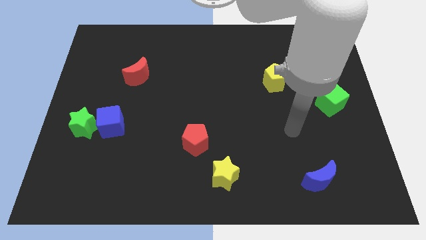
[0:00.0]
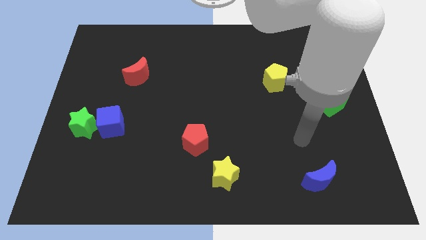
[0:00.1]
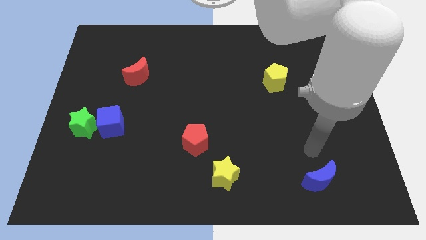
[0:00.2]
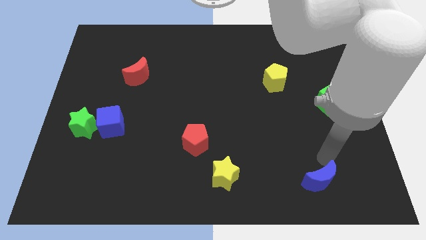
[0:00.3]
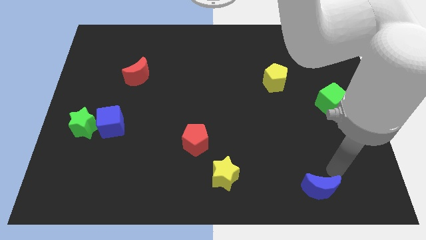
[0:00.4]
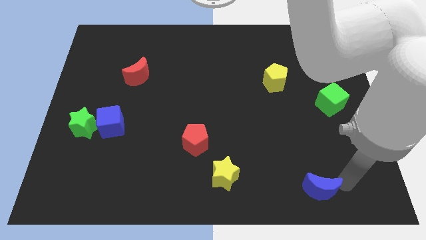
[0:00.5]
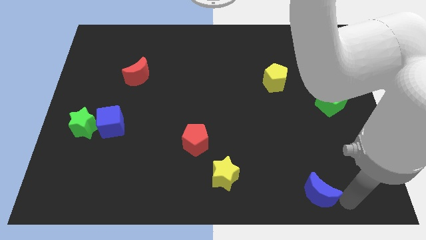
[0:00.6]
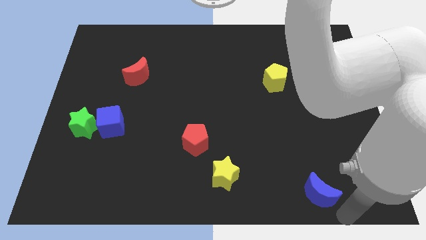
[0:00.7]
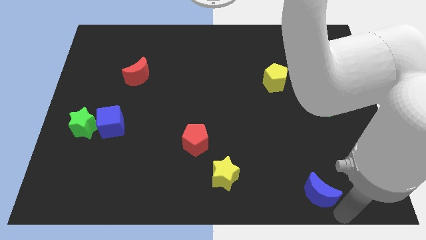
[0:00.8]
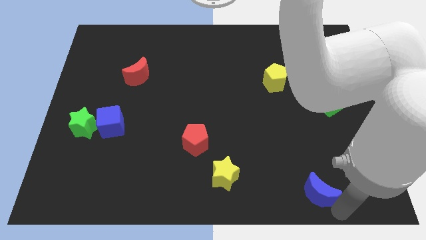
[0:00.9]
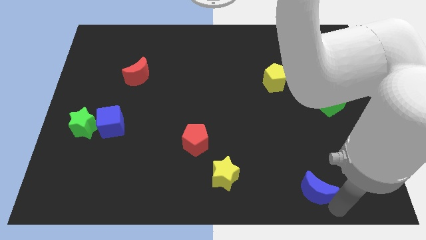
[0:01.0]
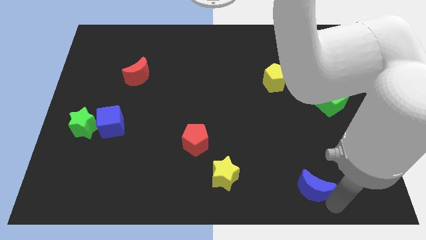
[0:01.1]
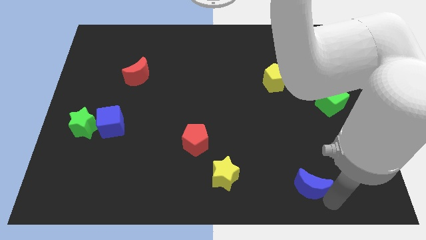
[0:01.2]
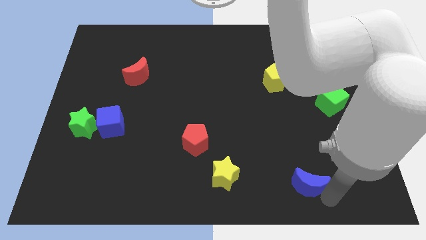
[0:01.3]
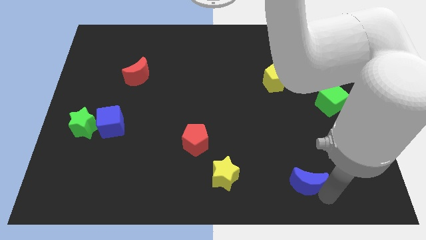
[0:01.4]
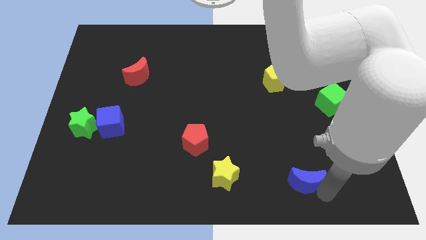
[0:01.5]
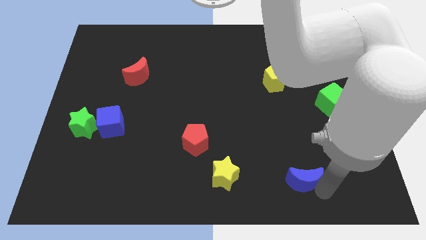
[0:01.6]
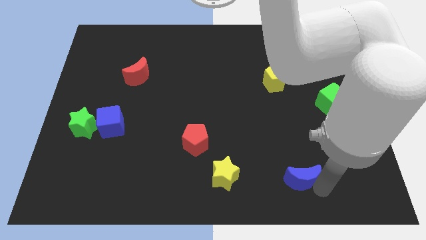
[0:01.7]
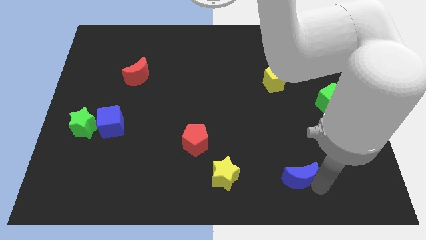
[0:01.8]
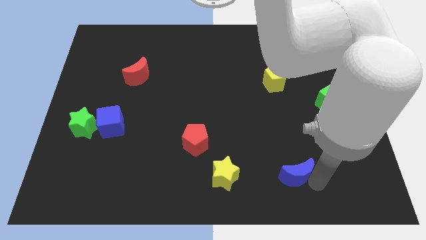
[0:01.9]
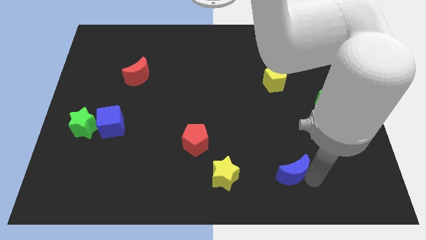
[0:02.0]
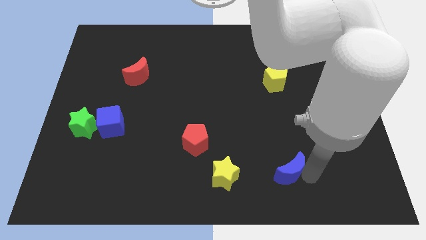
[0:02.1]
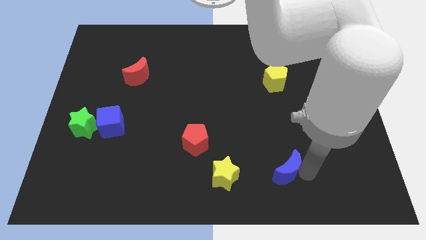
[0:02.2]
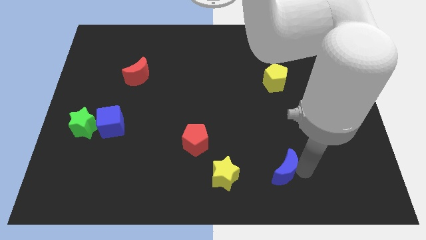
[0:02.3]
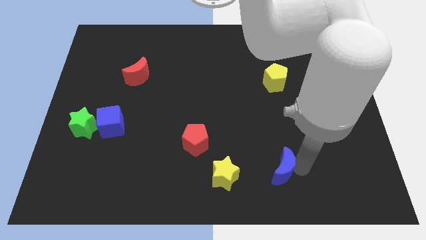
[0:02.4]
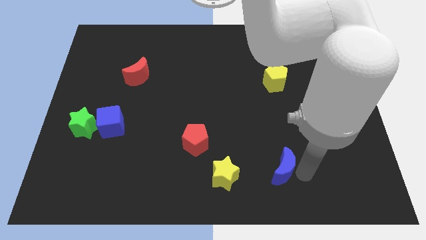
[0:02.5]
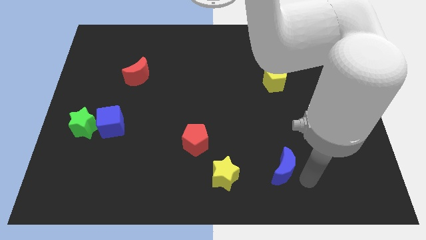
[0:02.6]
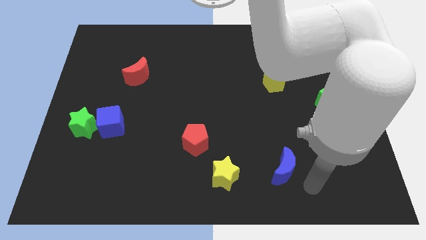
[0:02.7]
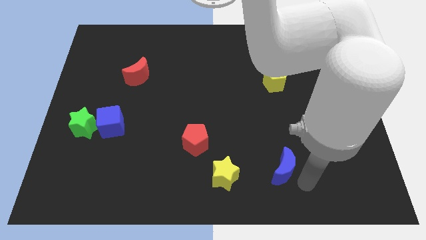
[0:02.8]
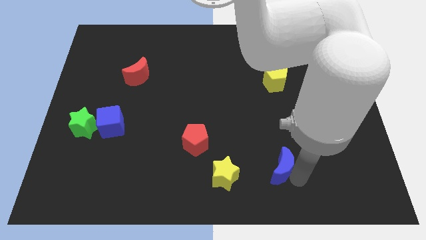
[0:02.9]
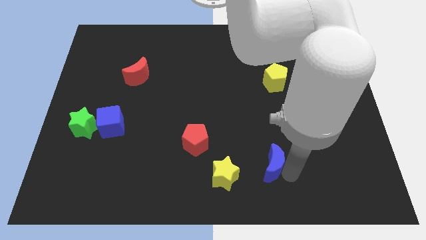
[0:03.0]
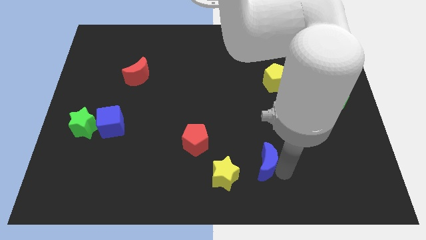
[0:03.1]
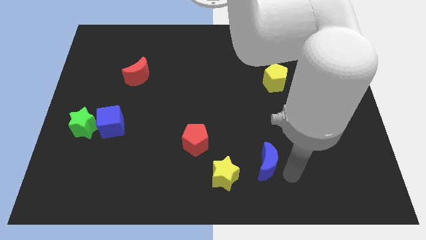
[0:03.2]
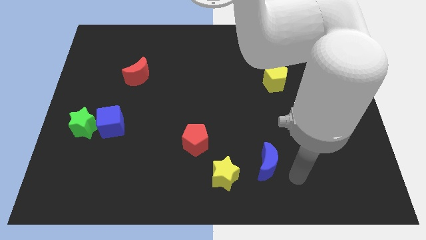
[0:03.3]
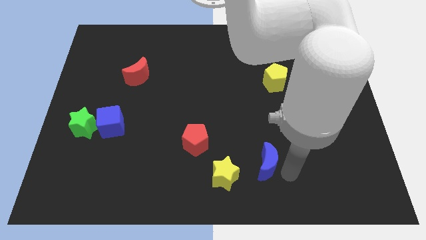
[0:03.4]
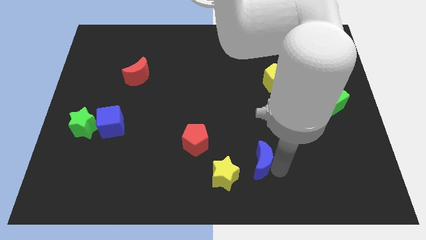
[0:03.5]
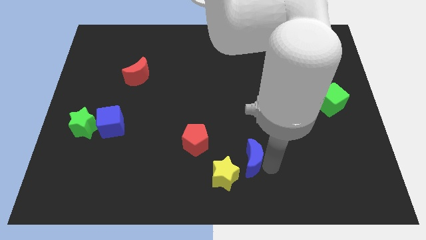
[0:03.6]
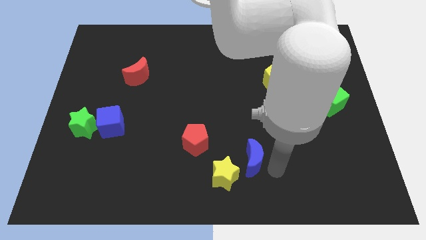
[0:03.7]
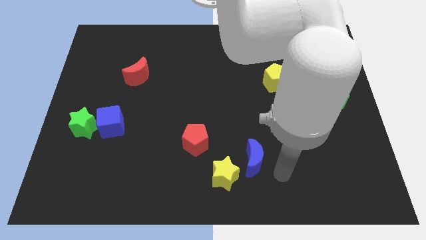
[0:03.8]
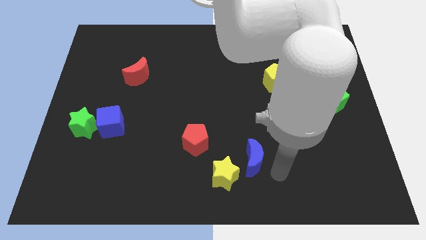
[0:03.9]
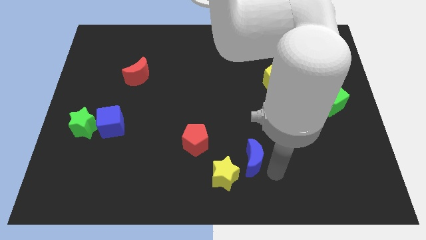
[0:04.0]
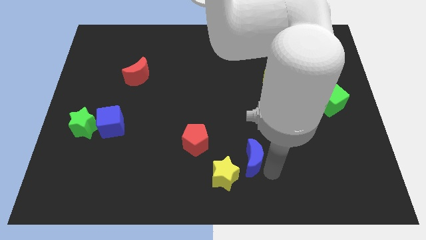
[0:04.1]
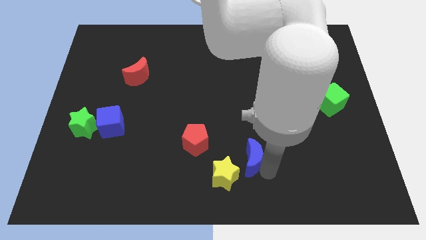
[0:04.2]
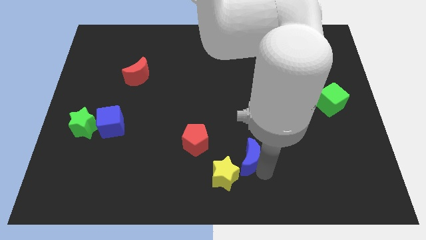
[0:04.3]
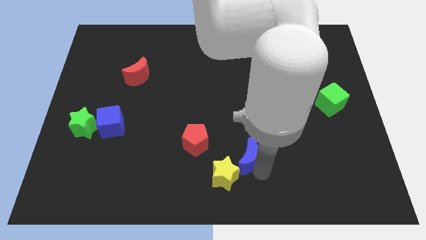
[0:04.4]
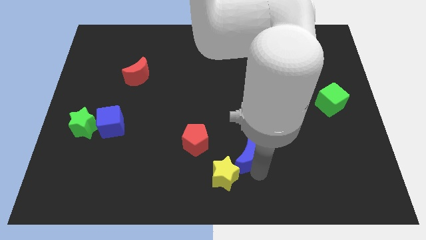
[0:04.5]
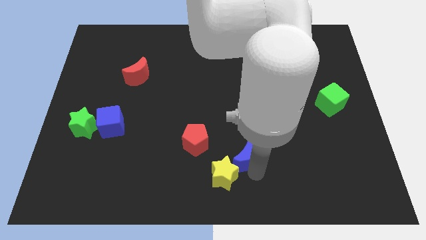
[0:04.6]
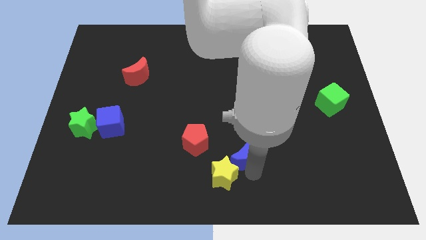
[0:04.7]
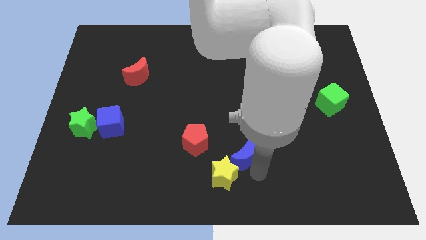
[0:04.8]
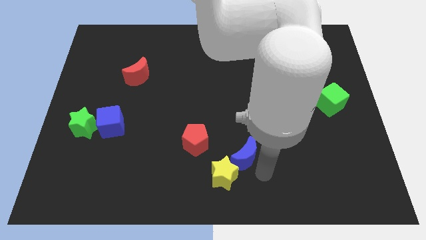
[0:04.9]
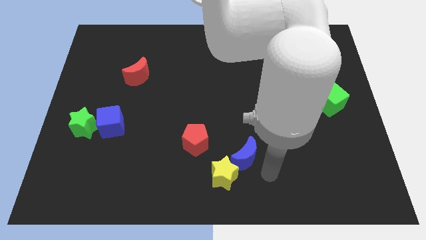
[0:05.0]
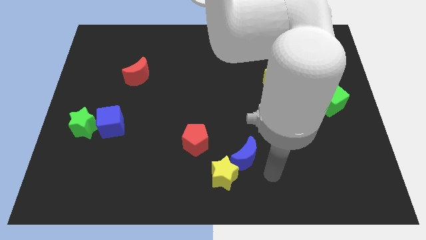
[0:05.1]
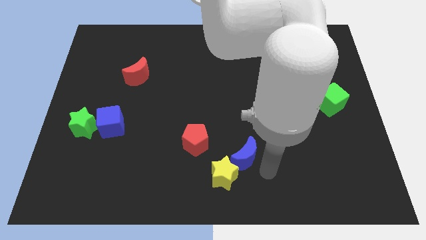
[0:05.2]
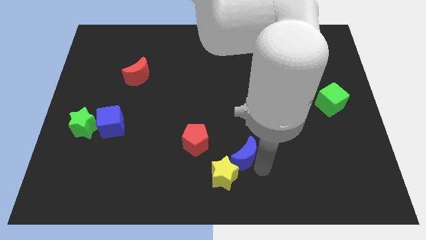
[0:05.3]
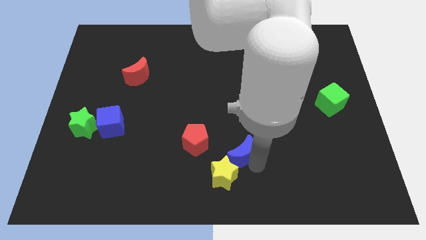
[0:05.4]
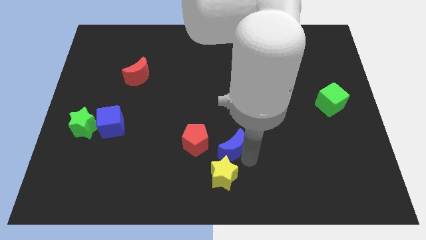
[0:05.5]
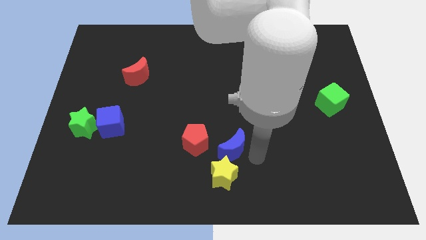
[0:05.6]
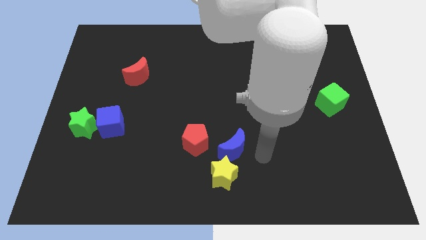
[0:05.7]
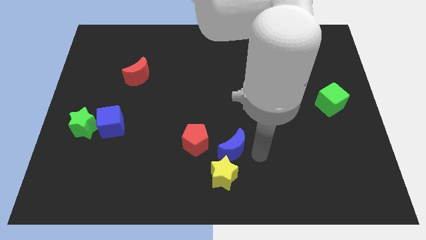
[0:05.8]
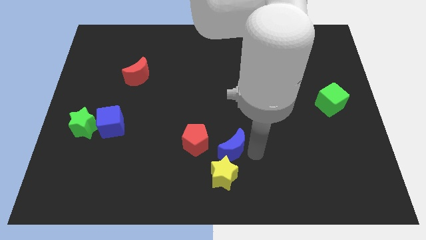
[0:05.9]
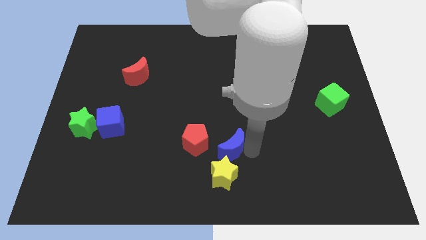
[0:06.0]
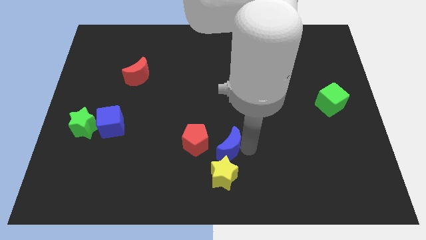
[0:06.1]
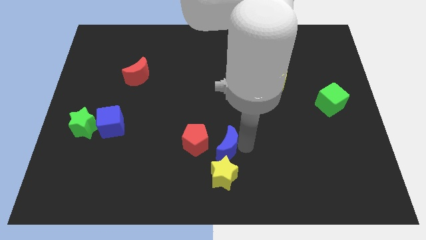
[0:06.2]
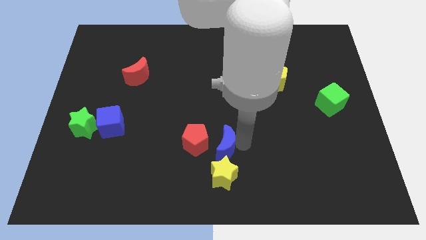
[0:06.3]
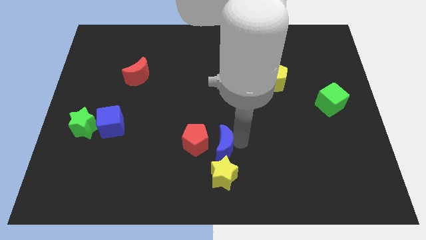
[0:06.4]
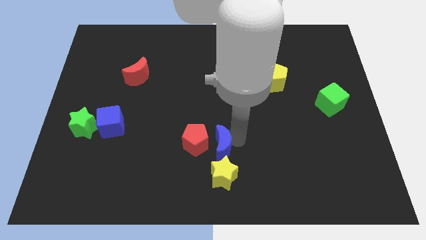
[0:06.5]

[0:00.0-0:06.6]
put the blue moon towards the red pentagon

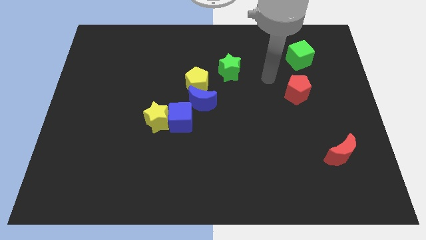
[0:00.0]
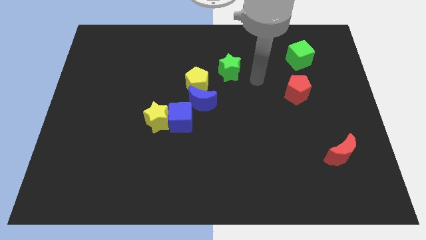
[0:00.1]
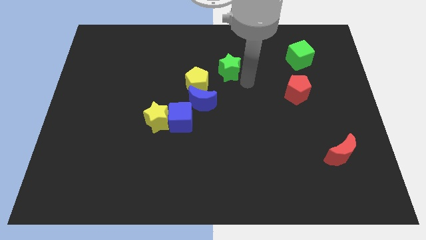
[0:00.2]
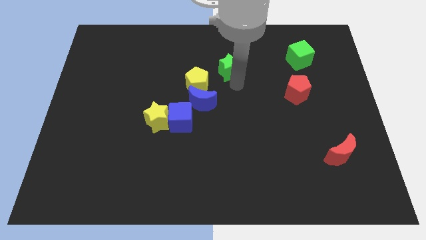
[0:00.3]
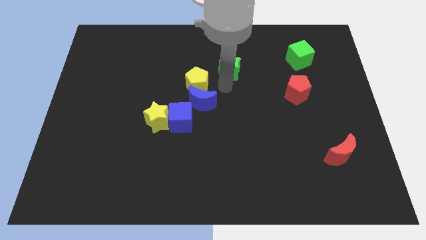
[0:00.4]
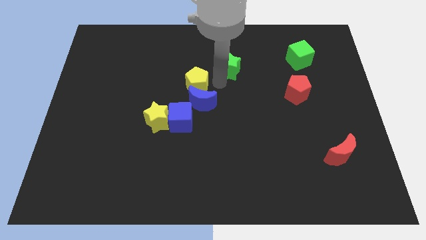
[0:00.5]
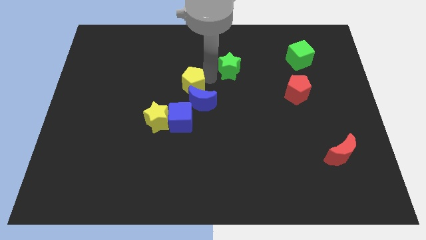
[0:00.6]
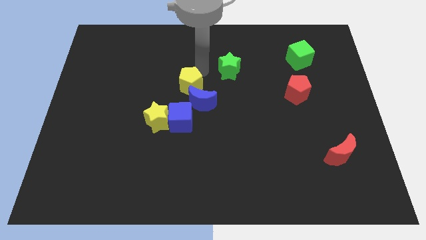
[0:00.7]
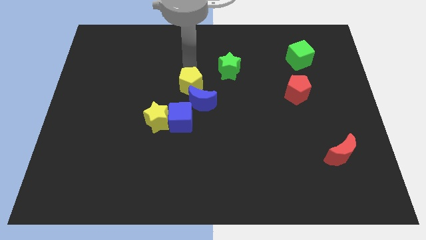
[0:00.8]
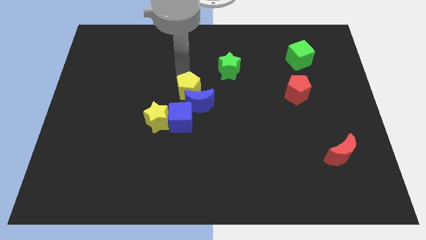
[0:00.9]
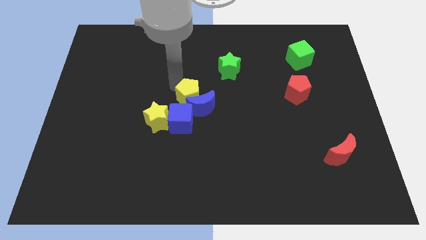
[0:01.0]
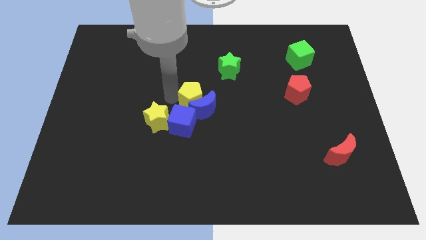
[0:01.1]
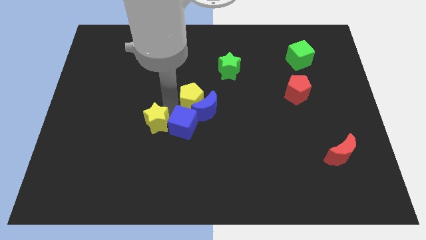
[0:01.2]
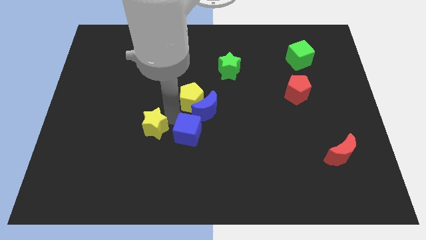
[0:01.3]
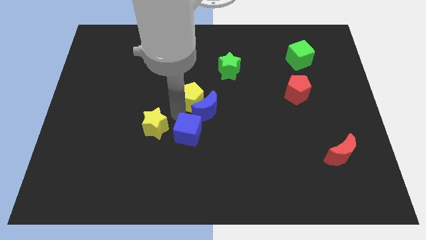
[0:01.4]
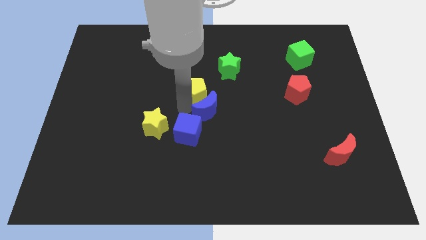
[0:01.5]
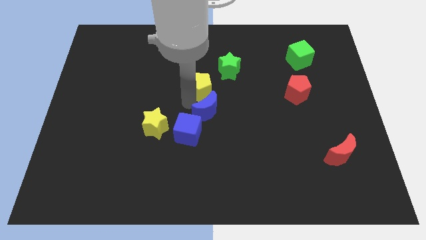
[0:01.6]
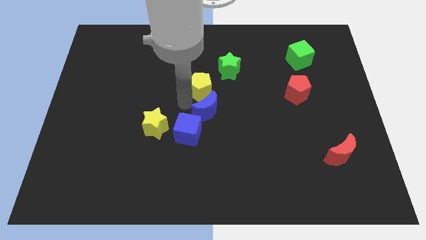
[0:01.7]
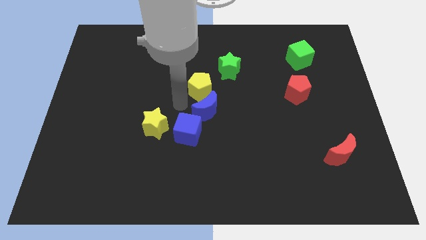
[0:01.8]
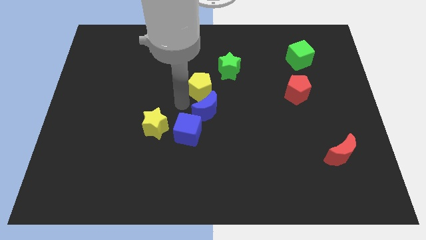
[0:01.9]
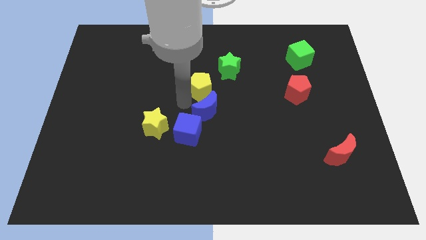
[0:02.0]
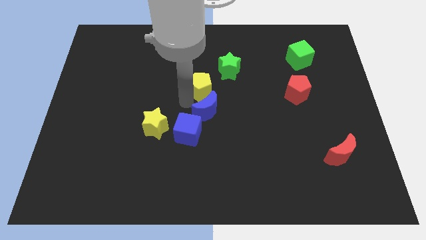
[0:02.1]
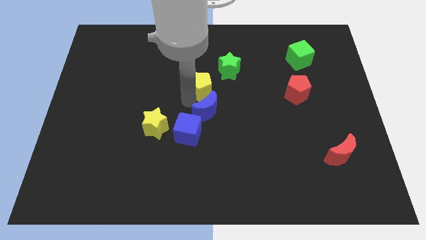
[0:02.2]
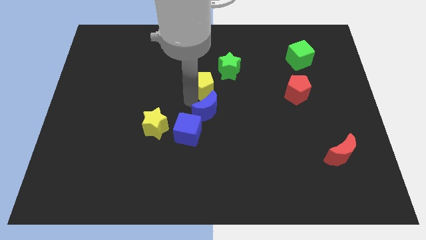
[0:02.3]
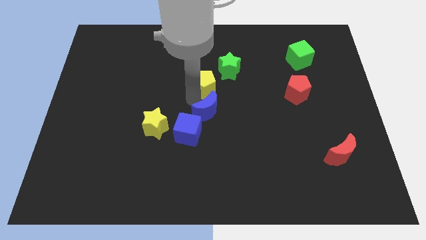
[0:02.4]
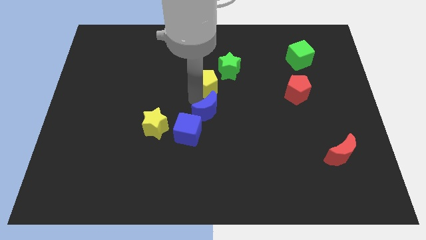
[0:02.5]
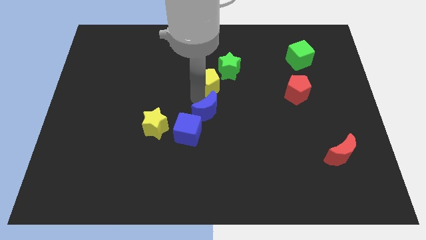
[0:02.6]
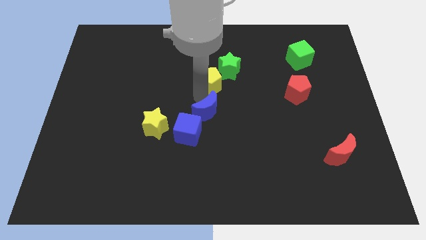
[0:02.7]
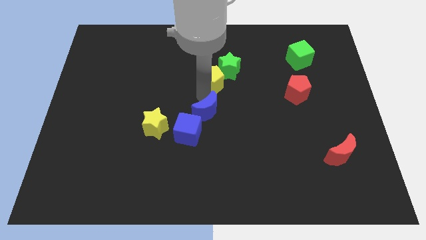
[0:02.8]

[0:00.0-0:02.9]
move the yellow pentagon to the green star
